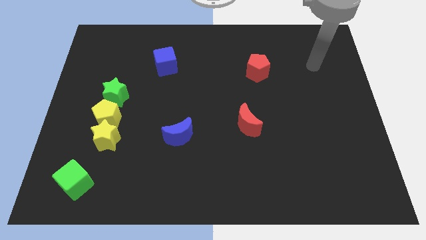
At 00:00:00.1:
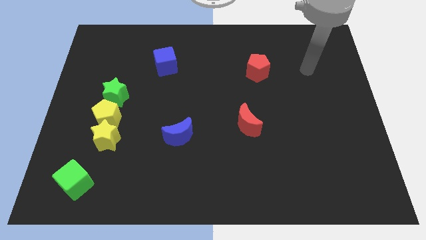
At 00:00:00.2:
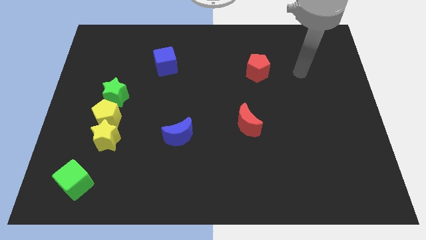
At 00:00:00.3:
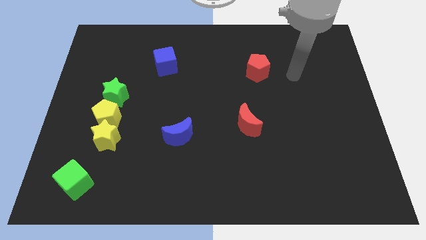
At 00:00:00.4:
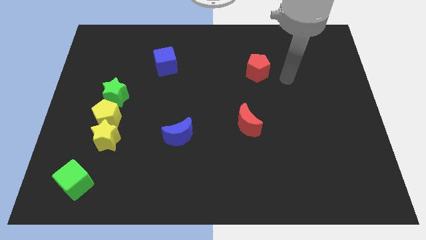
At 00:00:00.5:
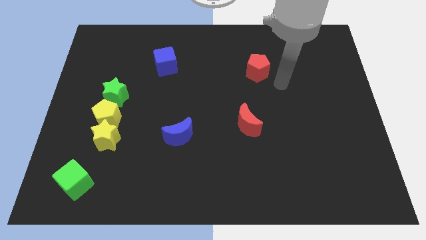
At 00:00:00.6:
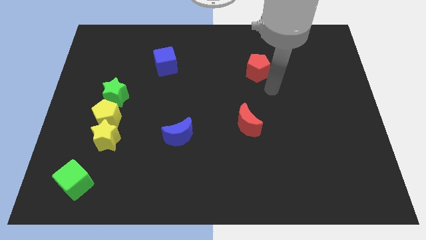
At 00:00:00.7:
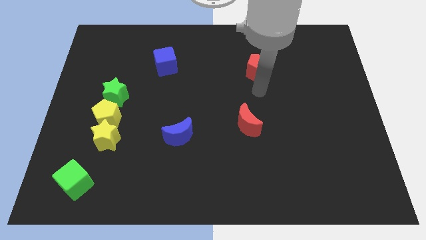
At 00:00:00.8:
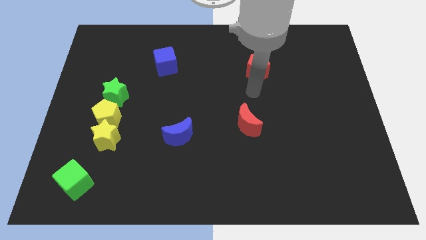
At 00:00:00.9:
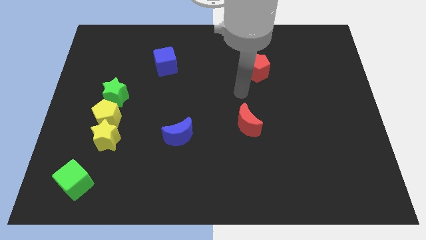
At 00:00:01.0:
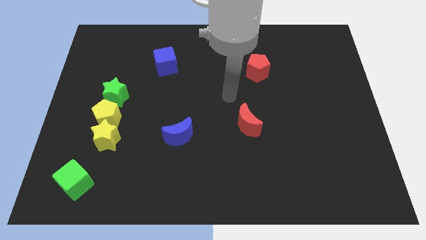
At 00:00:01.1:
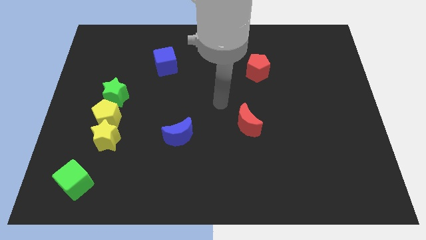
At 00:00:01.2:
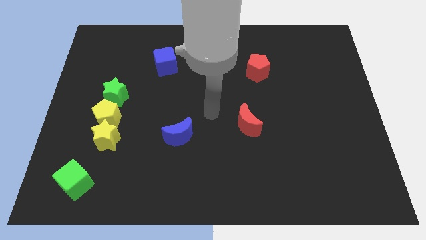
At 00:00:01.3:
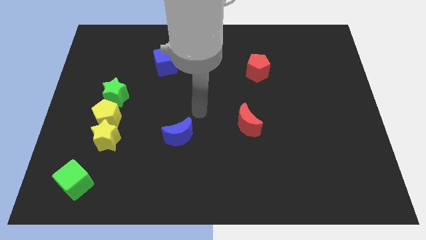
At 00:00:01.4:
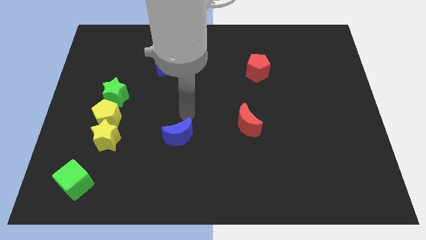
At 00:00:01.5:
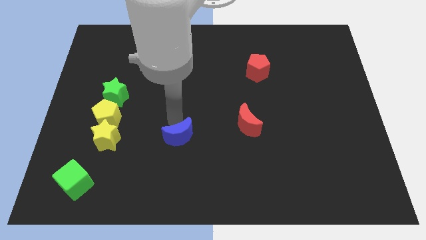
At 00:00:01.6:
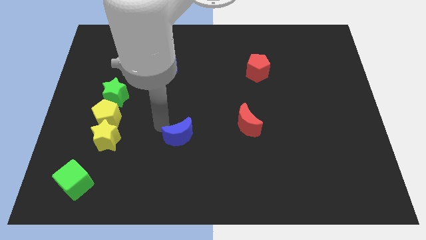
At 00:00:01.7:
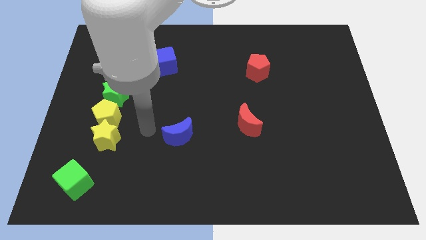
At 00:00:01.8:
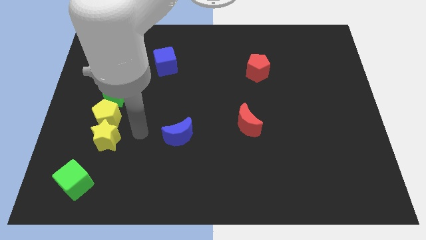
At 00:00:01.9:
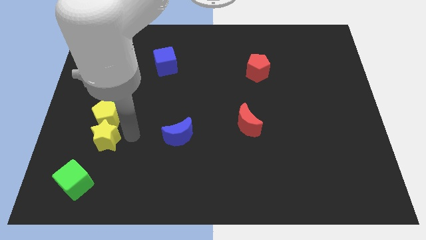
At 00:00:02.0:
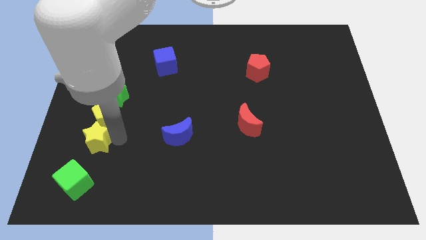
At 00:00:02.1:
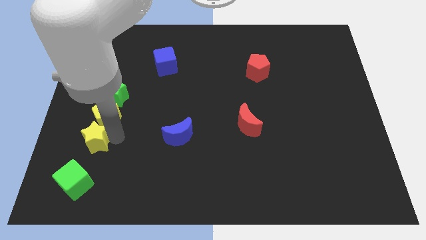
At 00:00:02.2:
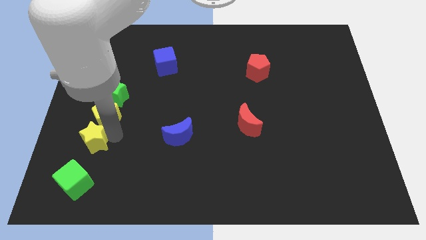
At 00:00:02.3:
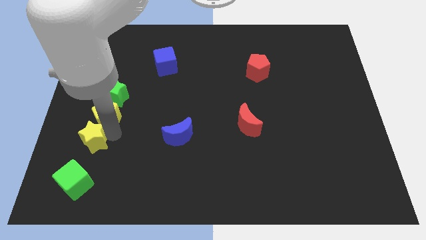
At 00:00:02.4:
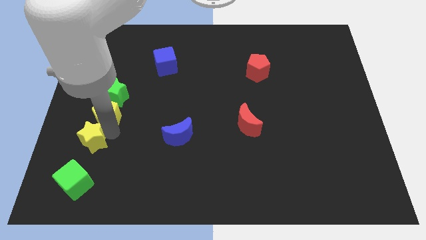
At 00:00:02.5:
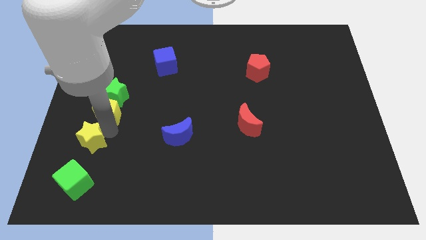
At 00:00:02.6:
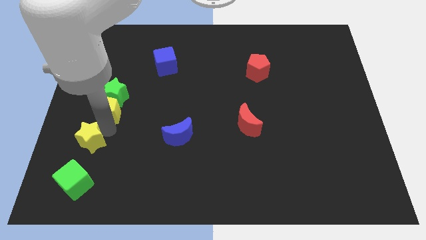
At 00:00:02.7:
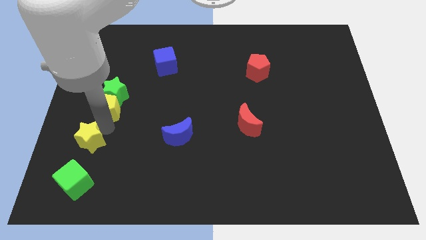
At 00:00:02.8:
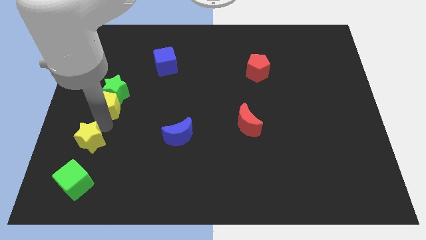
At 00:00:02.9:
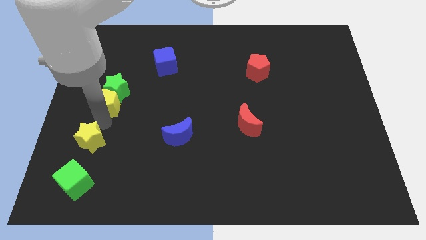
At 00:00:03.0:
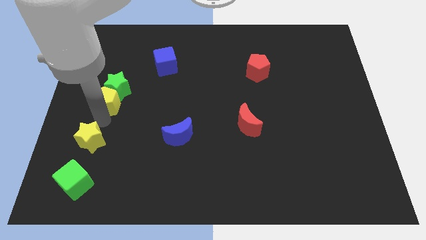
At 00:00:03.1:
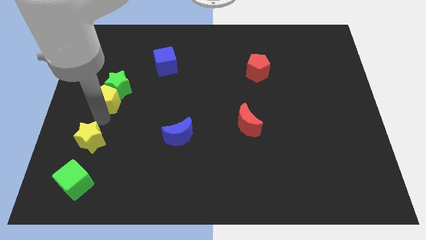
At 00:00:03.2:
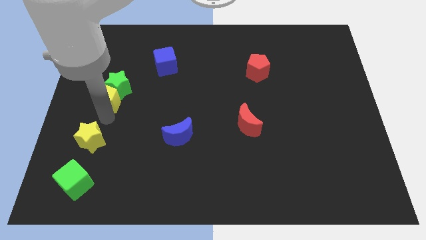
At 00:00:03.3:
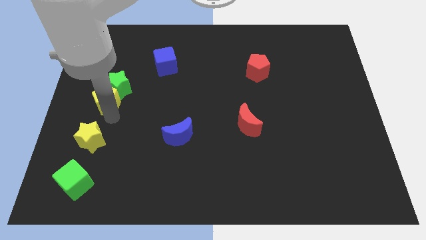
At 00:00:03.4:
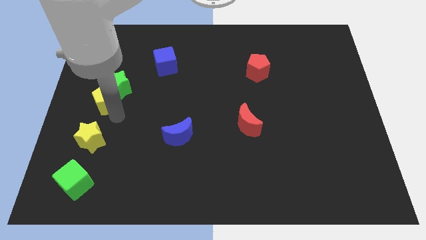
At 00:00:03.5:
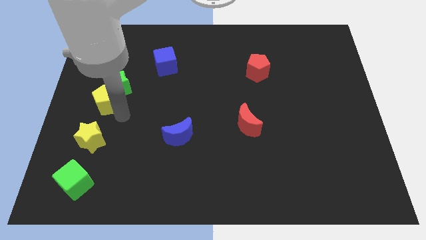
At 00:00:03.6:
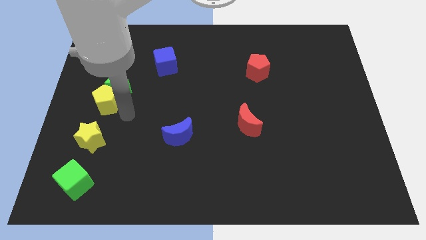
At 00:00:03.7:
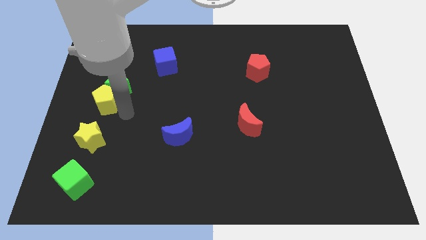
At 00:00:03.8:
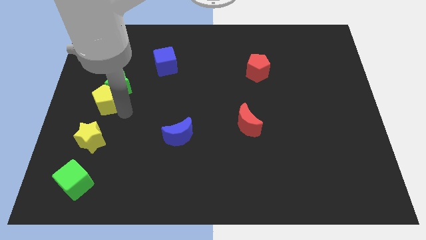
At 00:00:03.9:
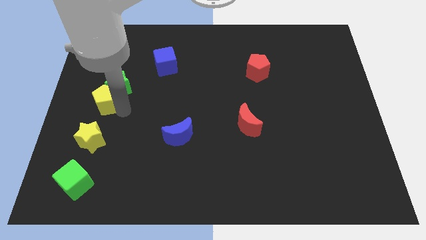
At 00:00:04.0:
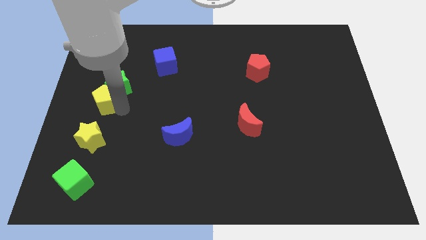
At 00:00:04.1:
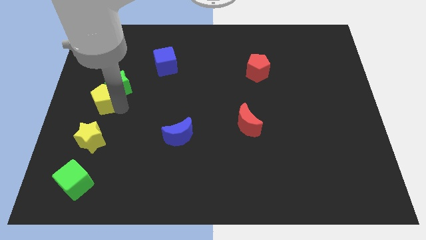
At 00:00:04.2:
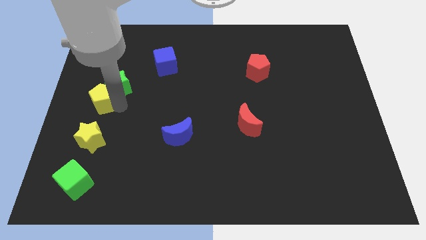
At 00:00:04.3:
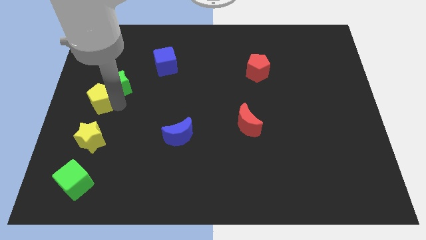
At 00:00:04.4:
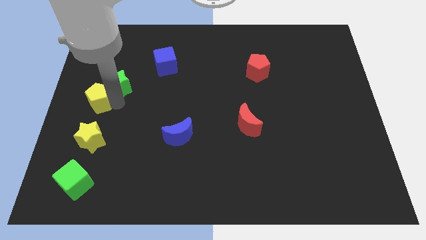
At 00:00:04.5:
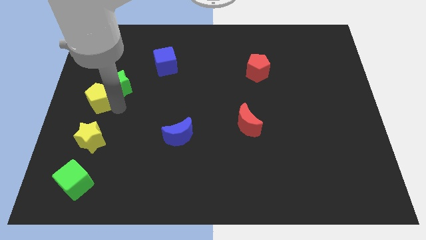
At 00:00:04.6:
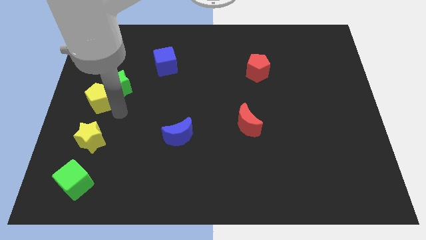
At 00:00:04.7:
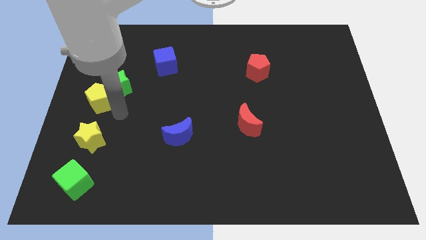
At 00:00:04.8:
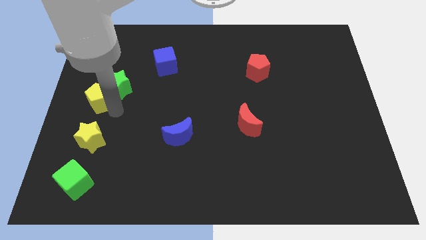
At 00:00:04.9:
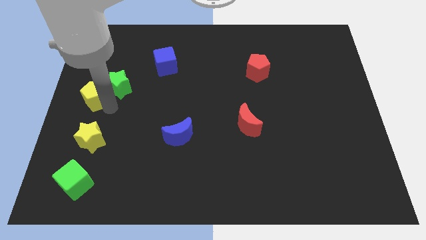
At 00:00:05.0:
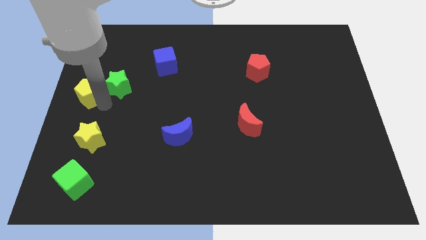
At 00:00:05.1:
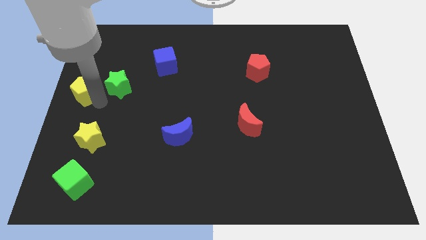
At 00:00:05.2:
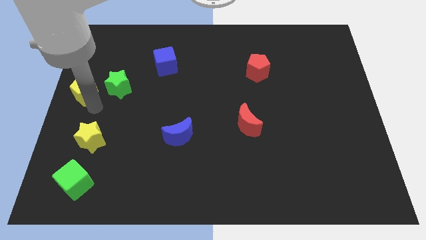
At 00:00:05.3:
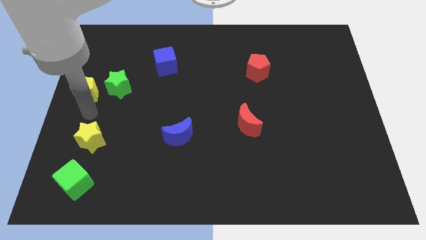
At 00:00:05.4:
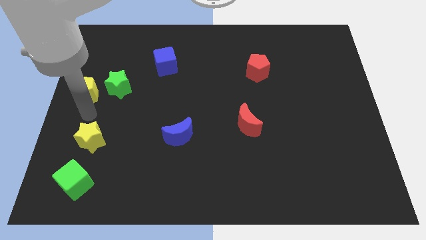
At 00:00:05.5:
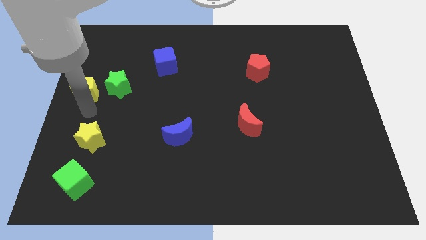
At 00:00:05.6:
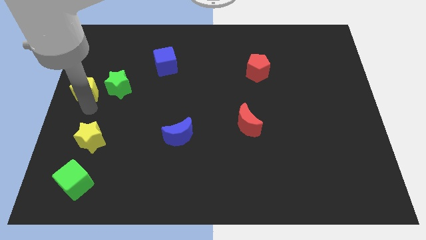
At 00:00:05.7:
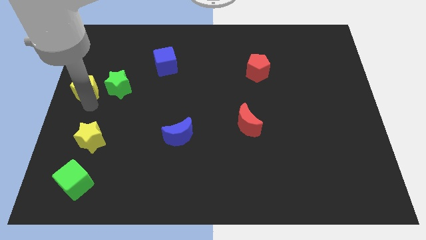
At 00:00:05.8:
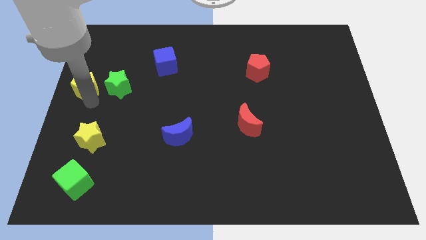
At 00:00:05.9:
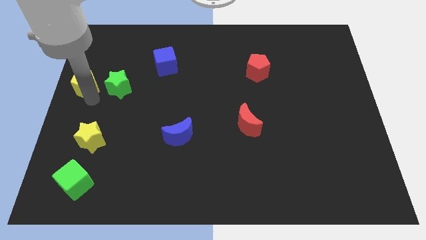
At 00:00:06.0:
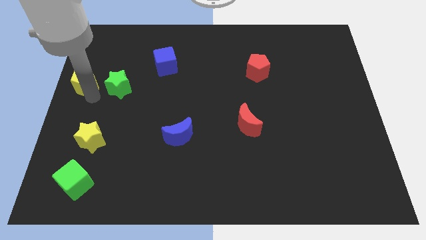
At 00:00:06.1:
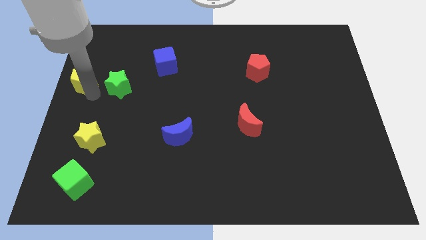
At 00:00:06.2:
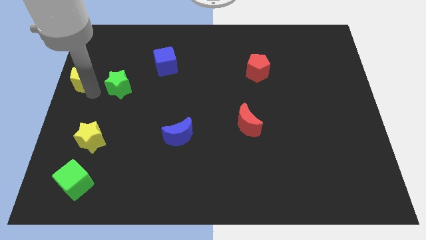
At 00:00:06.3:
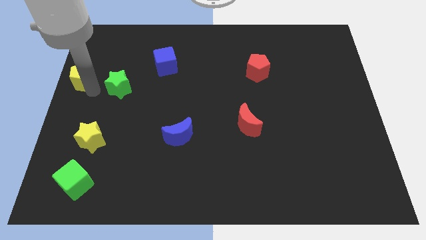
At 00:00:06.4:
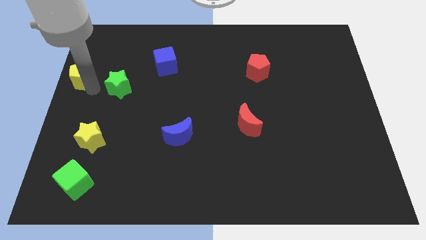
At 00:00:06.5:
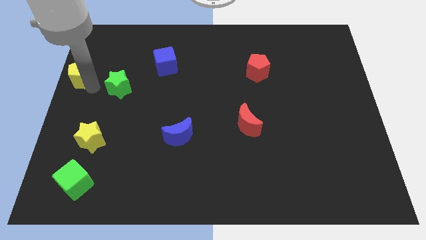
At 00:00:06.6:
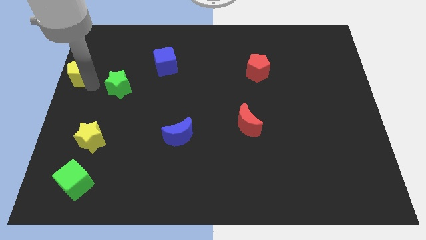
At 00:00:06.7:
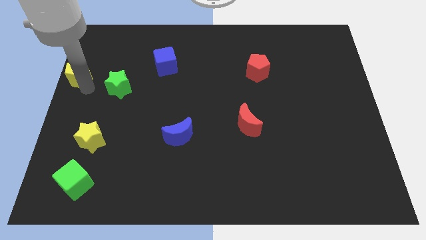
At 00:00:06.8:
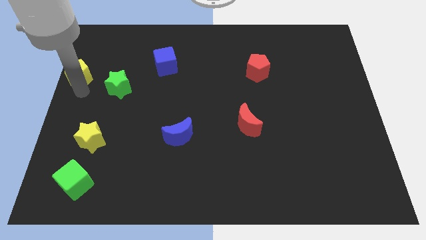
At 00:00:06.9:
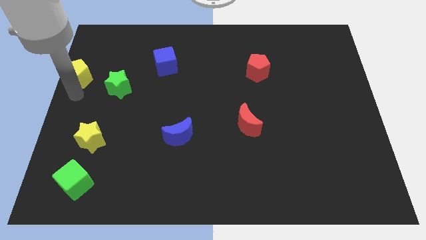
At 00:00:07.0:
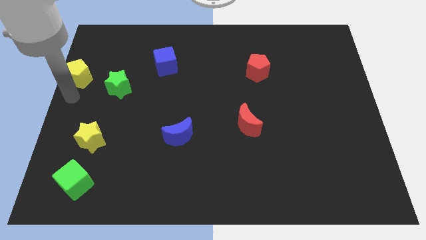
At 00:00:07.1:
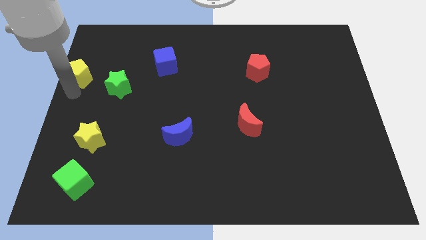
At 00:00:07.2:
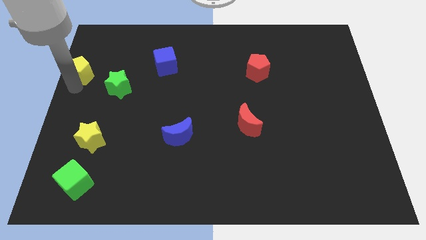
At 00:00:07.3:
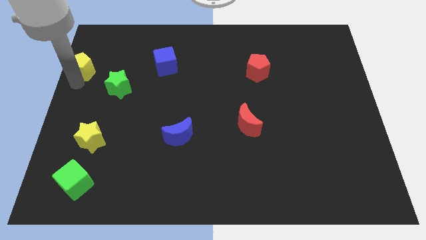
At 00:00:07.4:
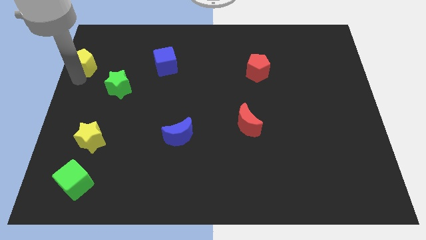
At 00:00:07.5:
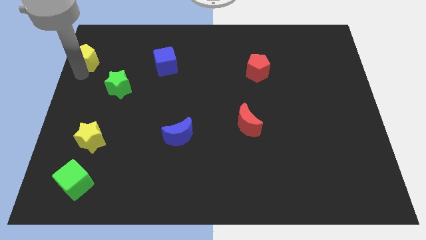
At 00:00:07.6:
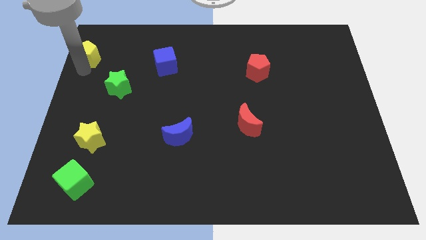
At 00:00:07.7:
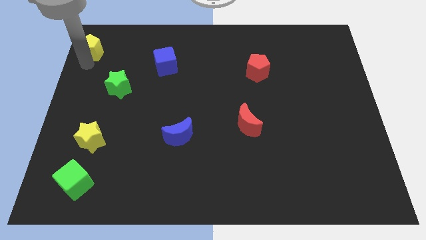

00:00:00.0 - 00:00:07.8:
push the yellow pentagon to the upper left corner
